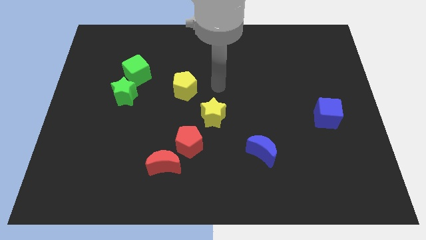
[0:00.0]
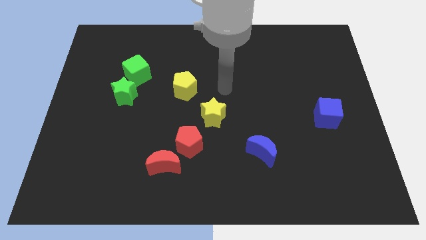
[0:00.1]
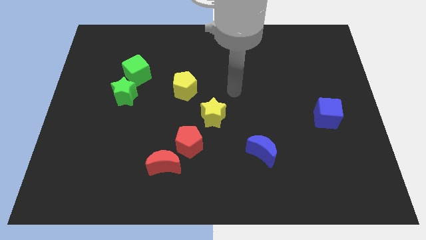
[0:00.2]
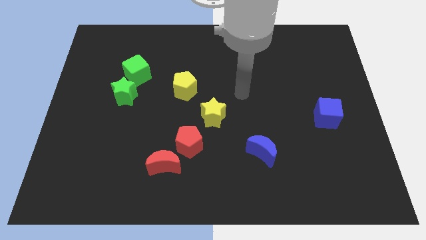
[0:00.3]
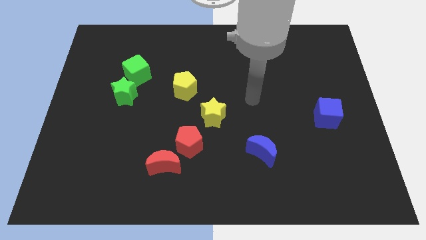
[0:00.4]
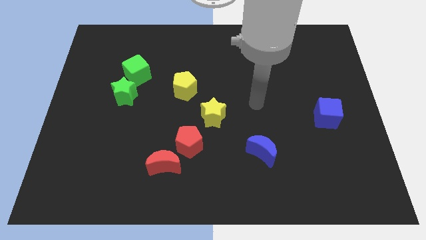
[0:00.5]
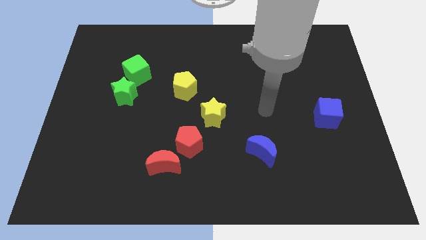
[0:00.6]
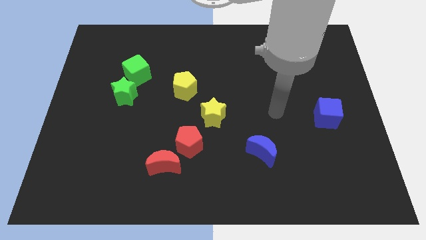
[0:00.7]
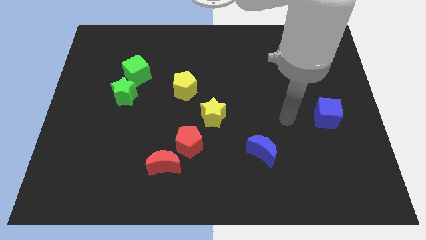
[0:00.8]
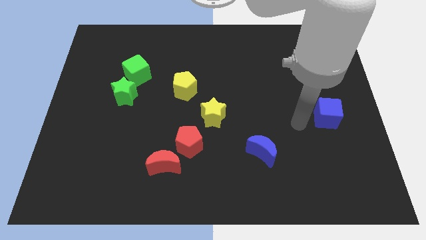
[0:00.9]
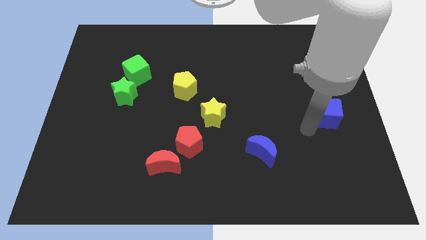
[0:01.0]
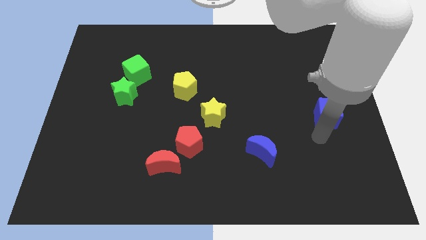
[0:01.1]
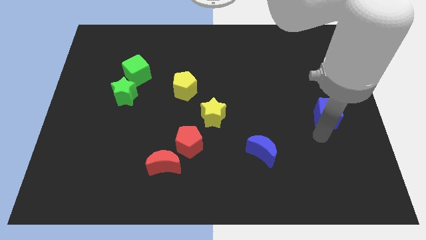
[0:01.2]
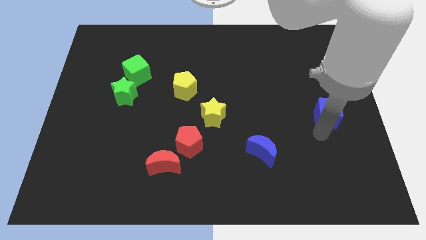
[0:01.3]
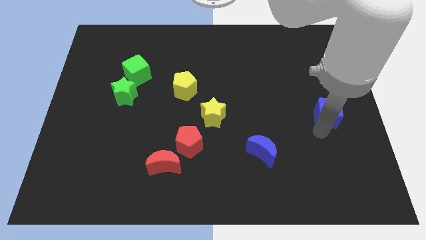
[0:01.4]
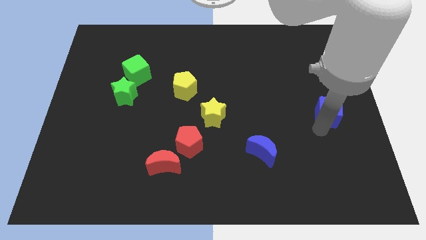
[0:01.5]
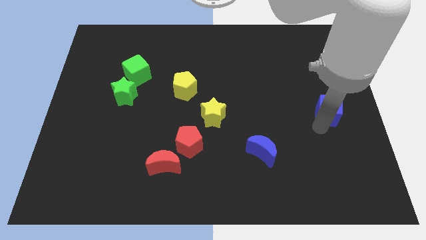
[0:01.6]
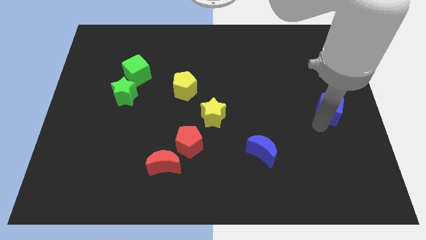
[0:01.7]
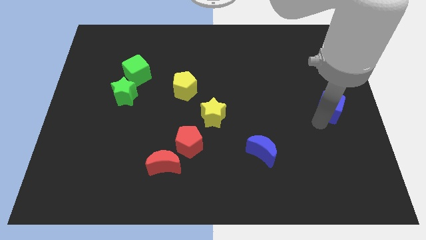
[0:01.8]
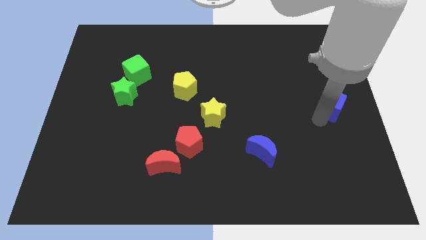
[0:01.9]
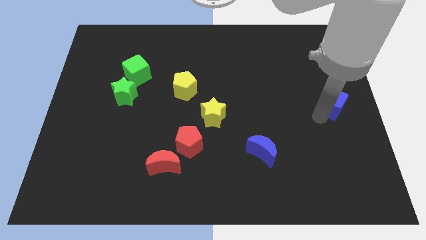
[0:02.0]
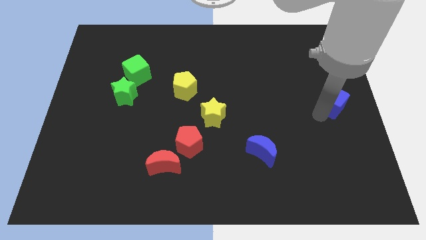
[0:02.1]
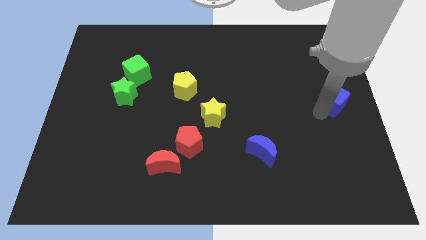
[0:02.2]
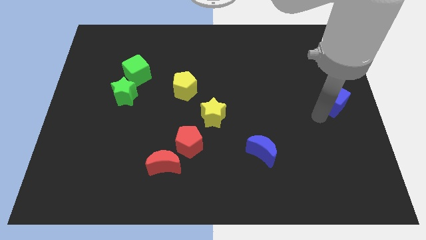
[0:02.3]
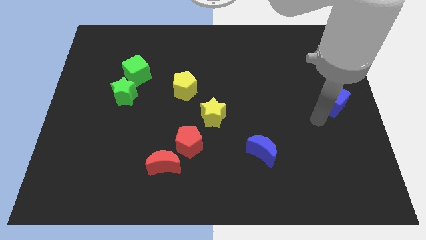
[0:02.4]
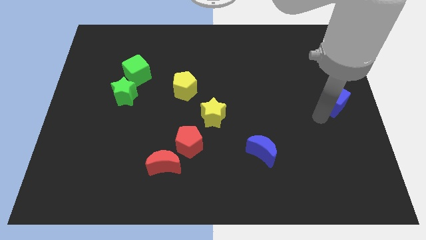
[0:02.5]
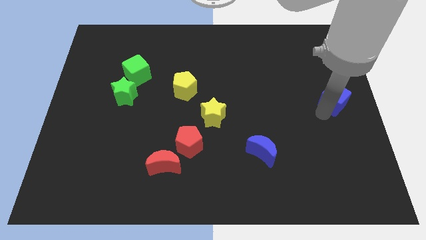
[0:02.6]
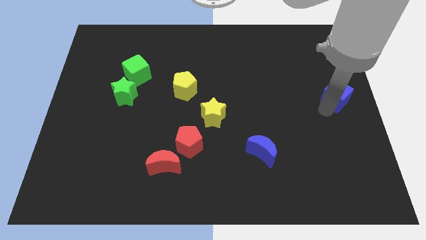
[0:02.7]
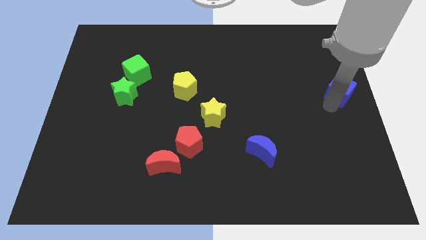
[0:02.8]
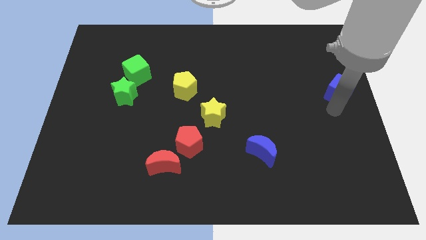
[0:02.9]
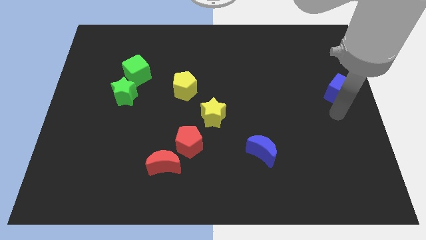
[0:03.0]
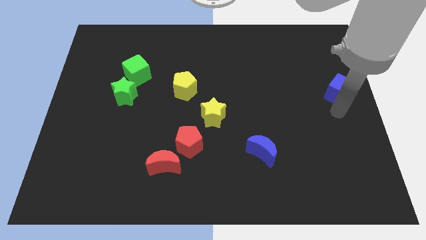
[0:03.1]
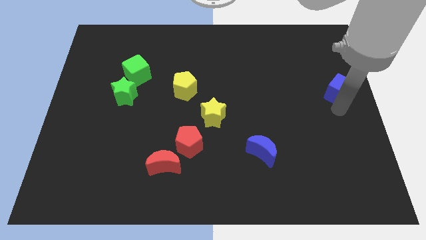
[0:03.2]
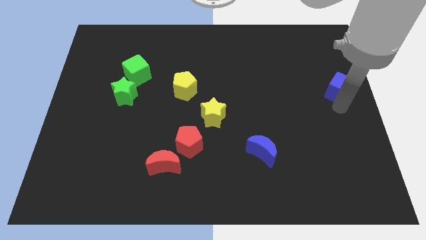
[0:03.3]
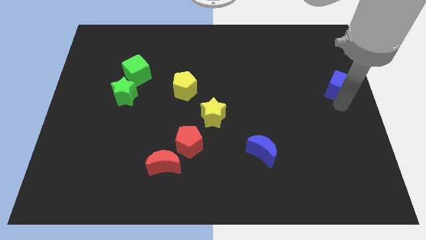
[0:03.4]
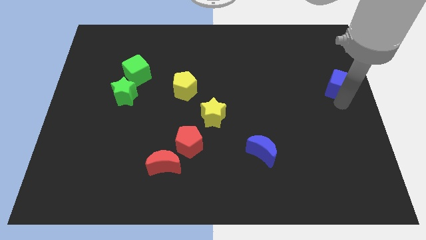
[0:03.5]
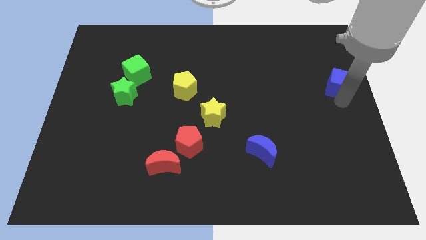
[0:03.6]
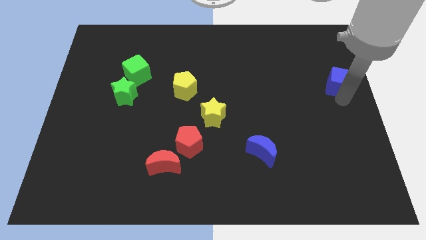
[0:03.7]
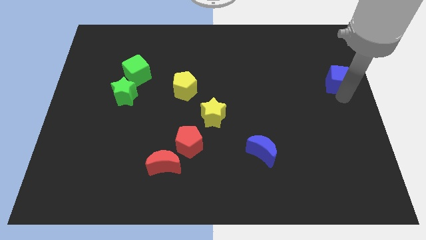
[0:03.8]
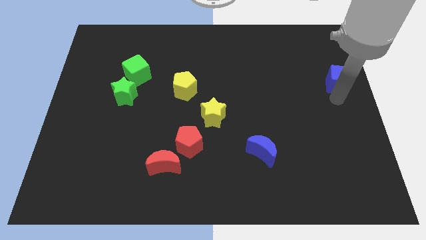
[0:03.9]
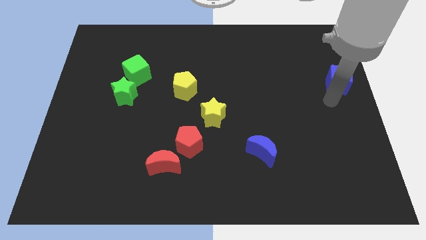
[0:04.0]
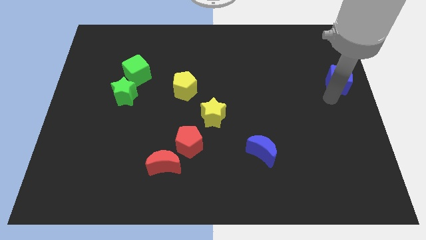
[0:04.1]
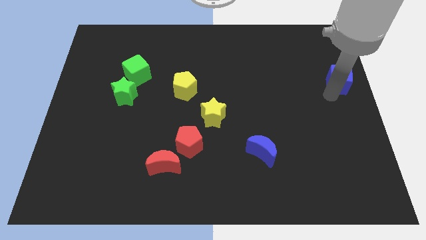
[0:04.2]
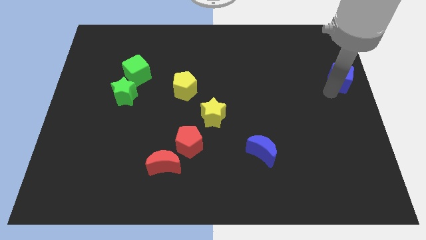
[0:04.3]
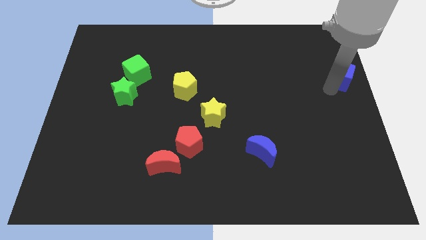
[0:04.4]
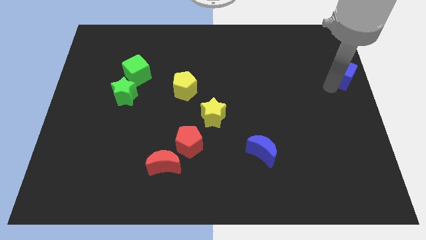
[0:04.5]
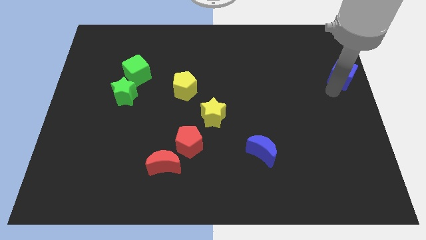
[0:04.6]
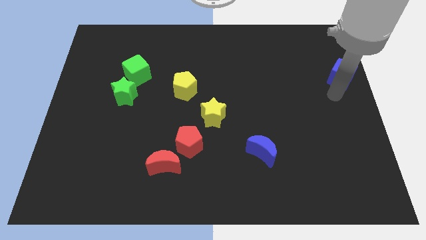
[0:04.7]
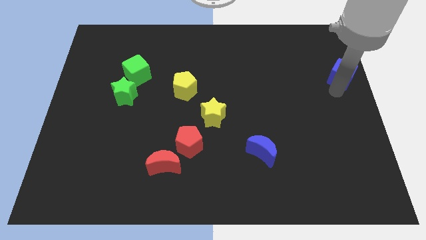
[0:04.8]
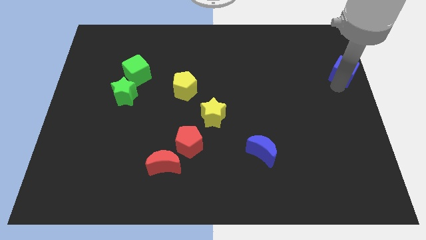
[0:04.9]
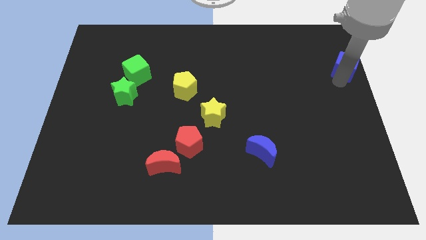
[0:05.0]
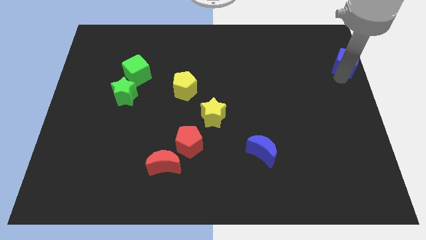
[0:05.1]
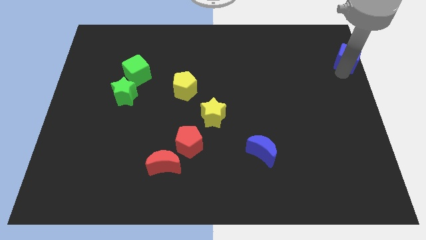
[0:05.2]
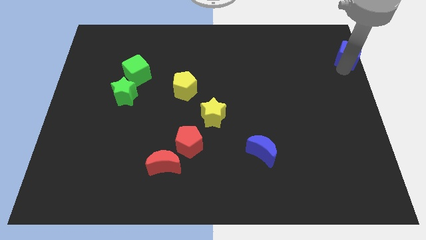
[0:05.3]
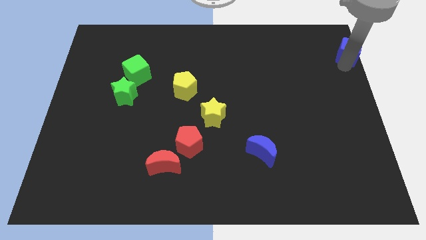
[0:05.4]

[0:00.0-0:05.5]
push the blue cube to the top right

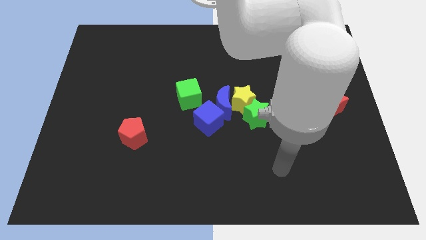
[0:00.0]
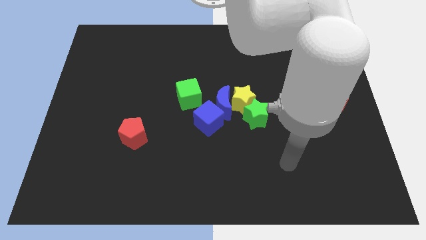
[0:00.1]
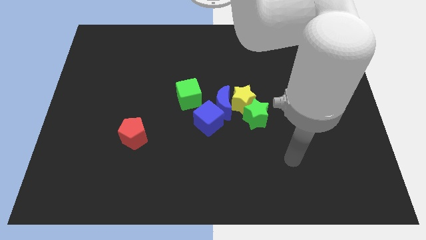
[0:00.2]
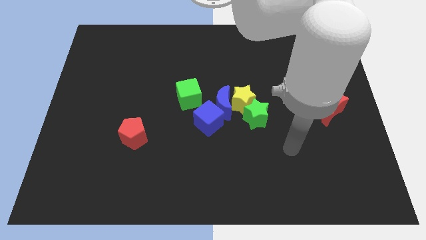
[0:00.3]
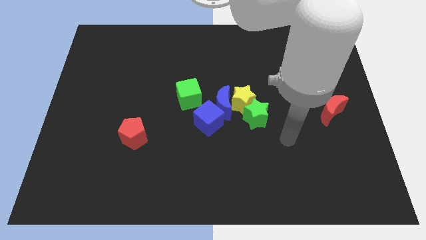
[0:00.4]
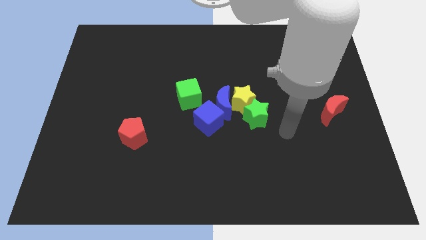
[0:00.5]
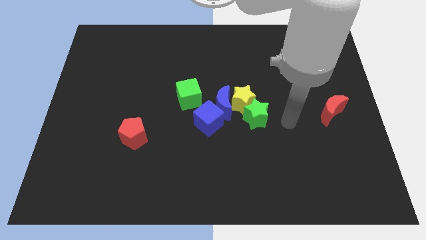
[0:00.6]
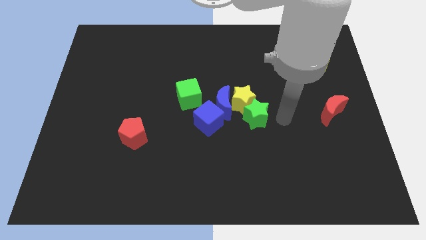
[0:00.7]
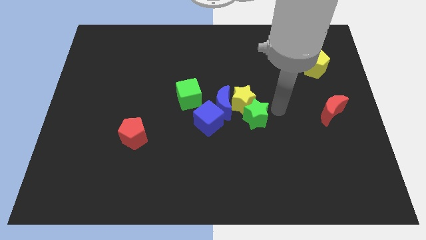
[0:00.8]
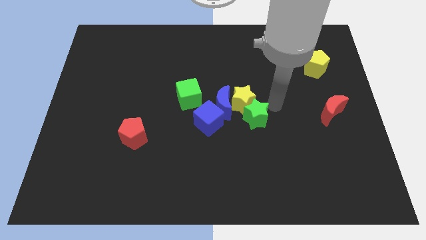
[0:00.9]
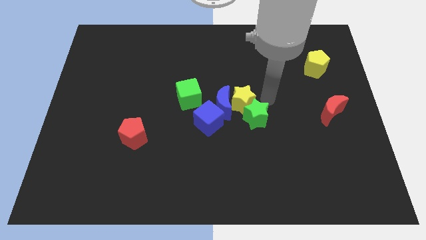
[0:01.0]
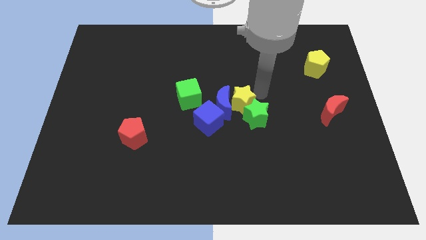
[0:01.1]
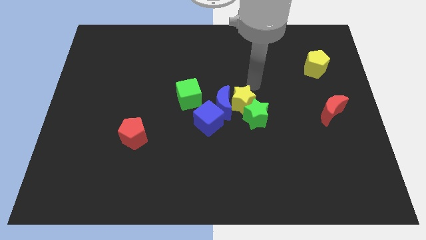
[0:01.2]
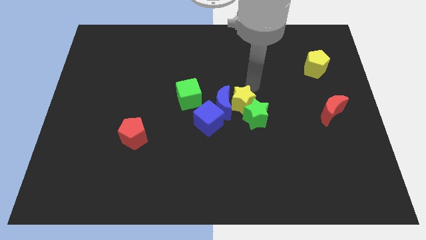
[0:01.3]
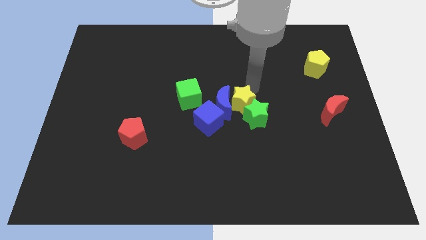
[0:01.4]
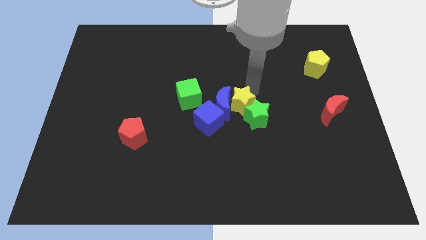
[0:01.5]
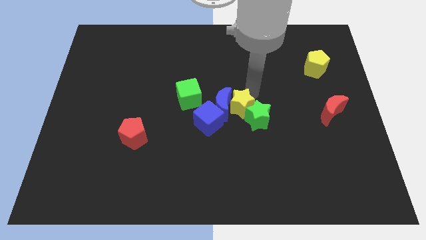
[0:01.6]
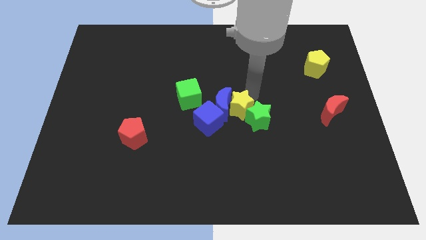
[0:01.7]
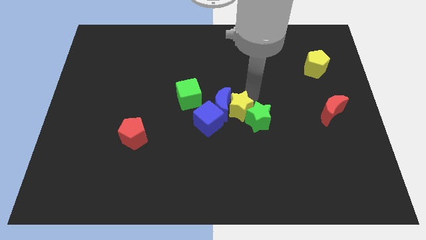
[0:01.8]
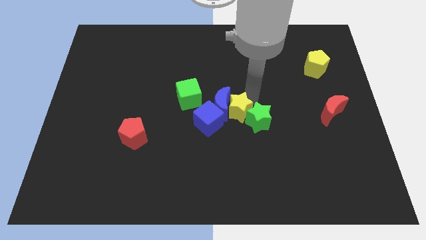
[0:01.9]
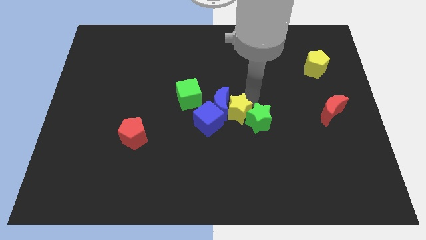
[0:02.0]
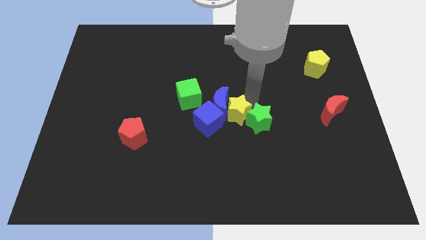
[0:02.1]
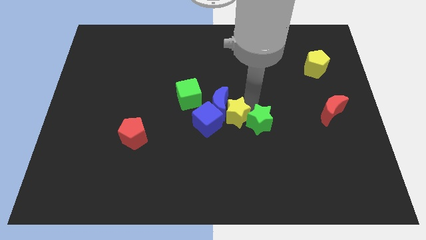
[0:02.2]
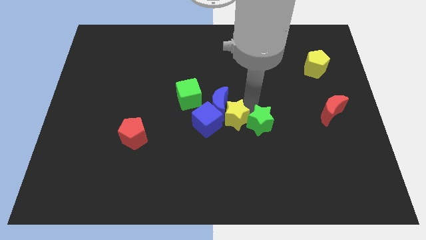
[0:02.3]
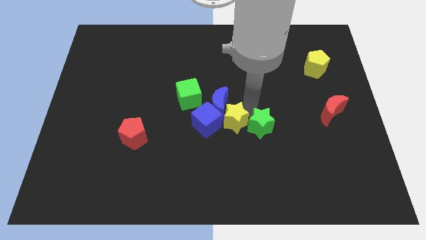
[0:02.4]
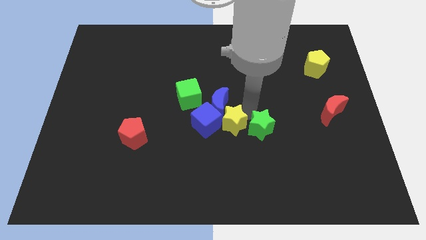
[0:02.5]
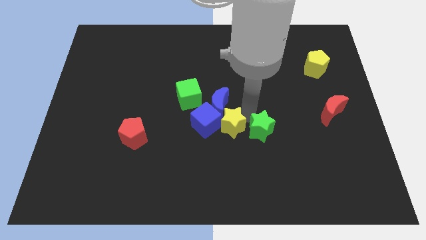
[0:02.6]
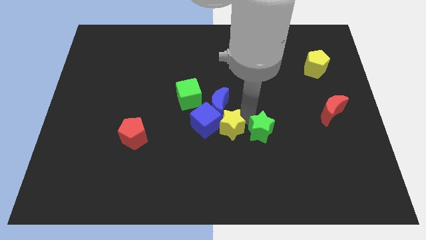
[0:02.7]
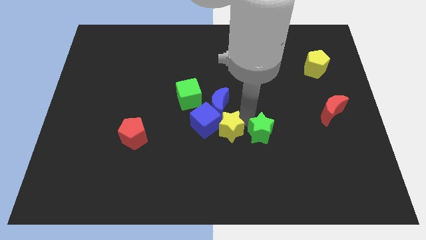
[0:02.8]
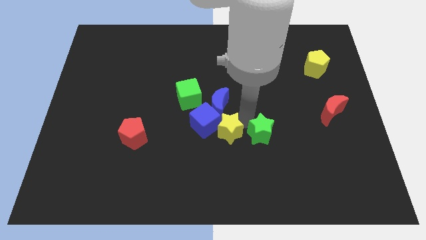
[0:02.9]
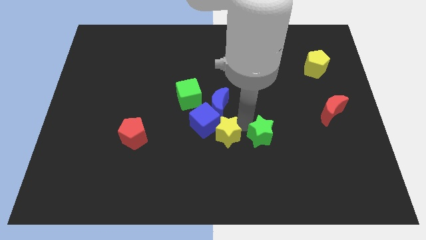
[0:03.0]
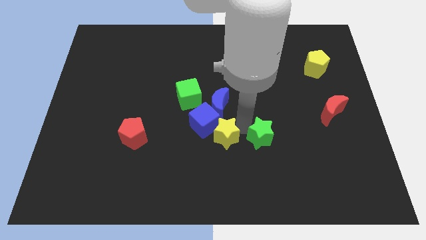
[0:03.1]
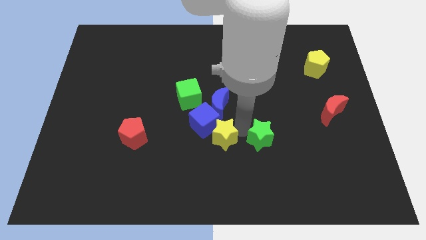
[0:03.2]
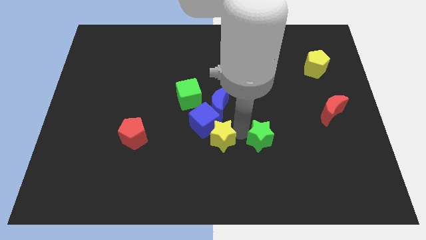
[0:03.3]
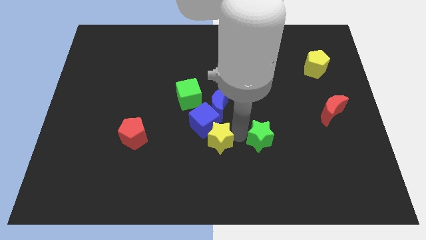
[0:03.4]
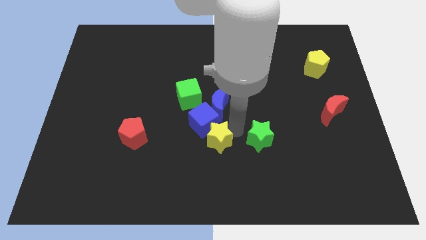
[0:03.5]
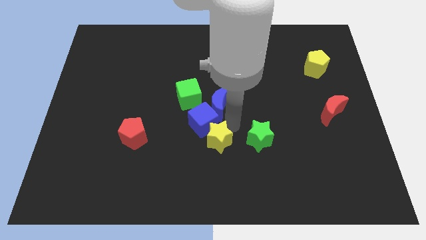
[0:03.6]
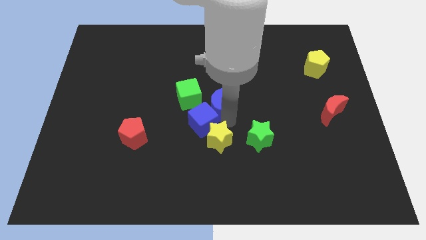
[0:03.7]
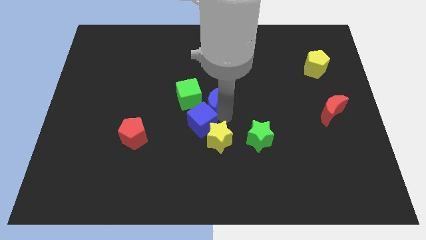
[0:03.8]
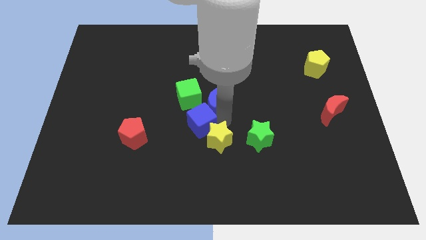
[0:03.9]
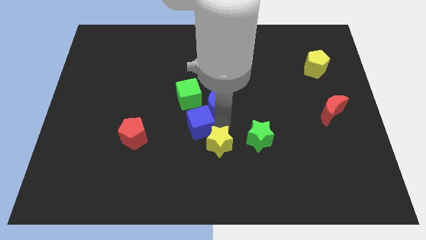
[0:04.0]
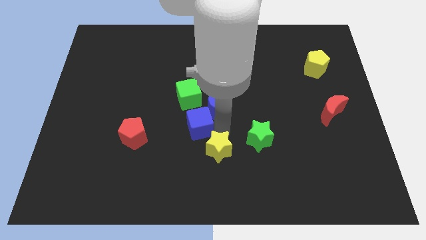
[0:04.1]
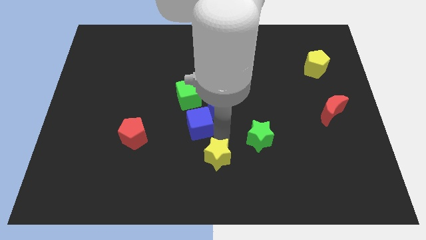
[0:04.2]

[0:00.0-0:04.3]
push the yellow star to the bottom
